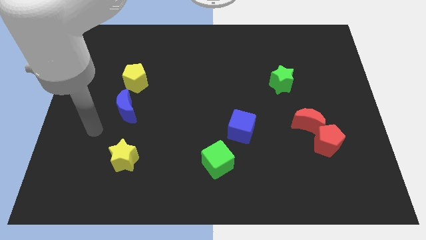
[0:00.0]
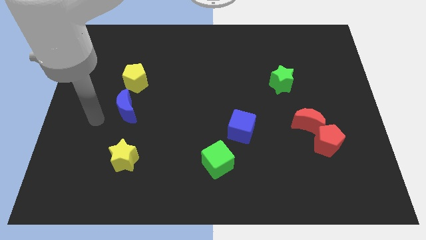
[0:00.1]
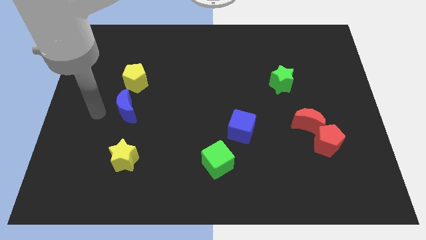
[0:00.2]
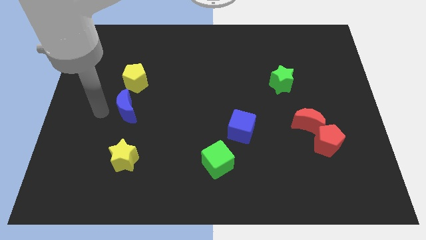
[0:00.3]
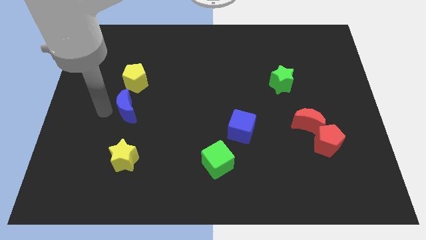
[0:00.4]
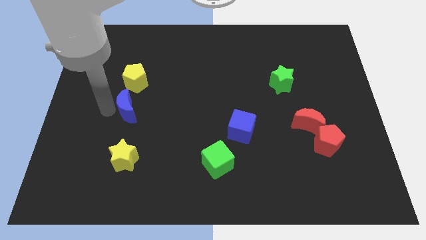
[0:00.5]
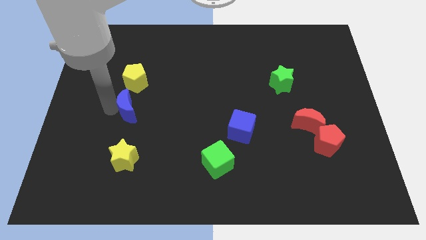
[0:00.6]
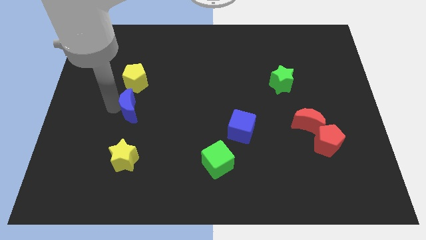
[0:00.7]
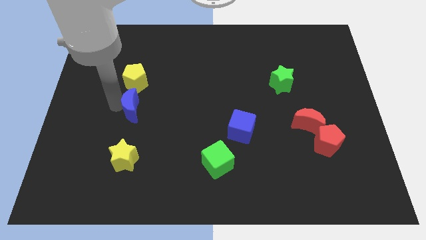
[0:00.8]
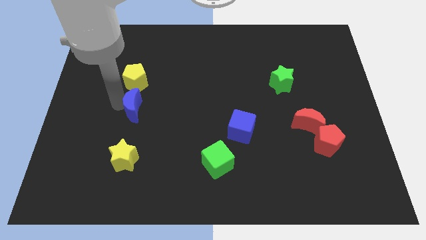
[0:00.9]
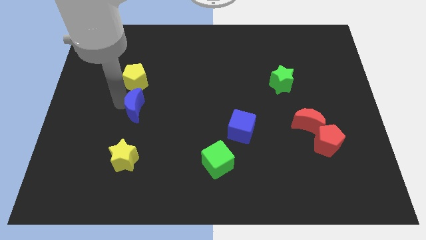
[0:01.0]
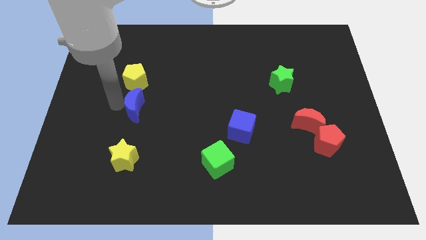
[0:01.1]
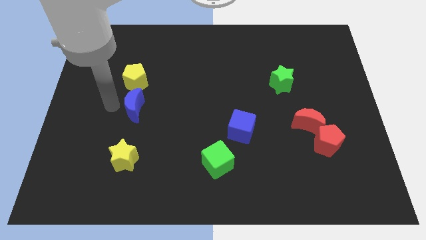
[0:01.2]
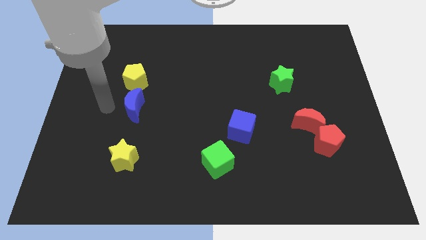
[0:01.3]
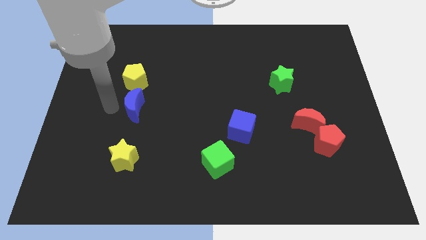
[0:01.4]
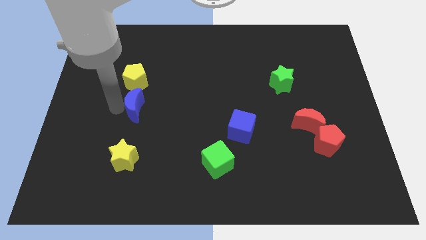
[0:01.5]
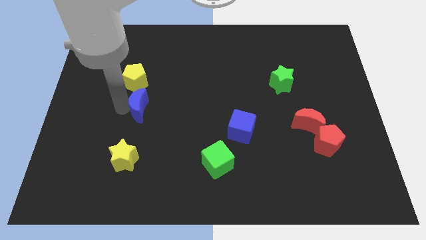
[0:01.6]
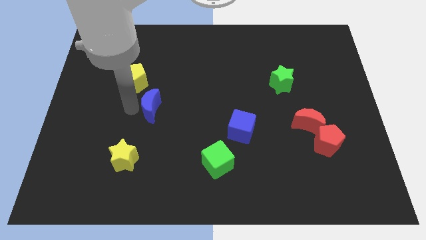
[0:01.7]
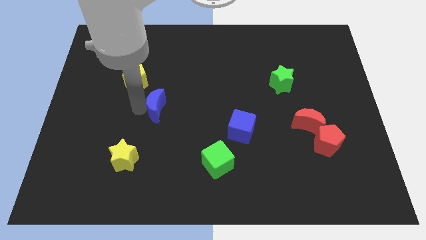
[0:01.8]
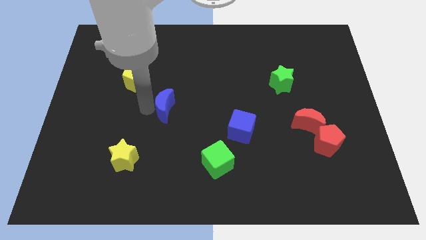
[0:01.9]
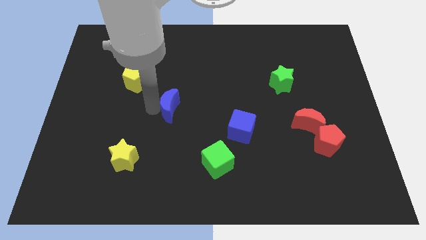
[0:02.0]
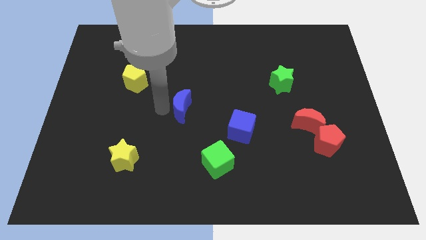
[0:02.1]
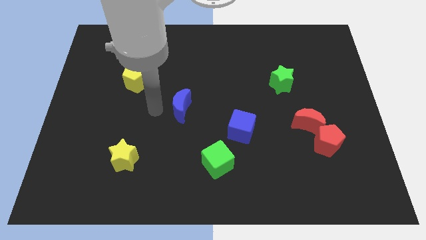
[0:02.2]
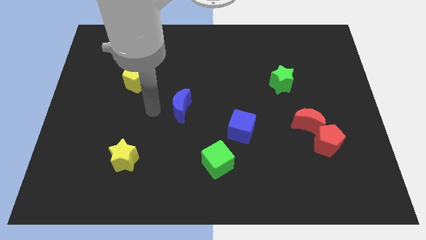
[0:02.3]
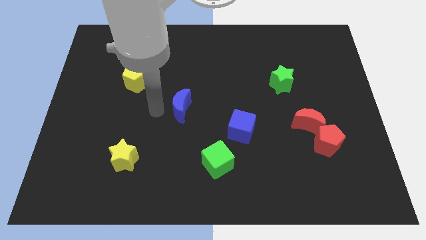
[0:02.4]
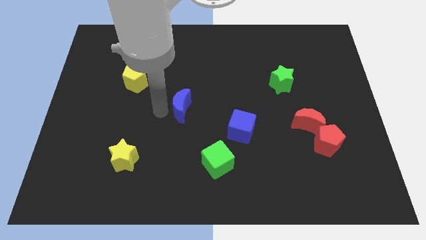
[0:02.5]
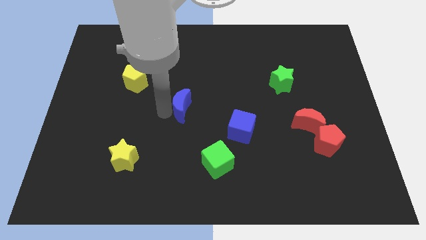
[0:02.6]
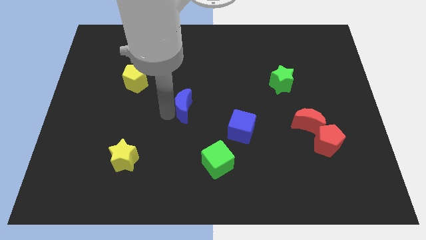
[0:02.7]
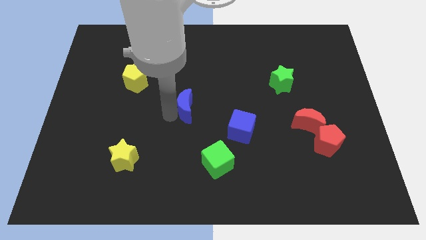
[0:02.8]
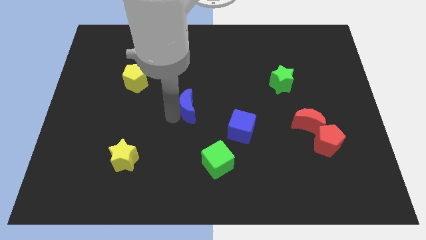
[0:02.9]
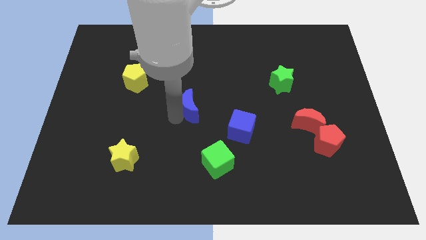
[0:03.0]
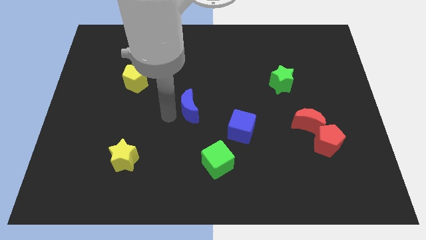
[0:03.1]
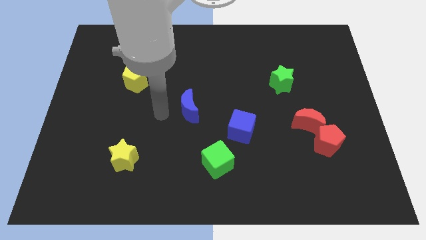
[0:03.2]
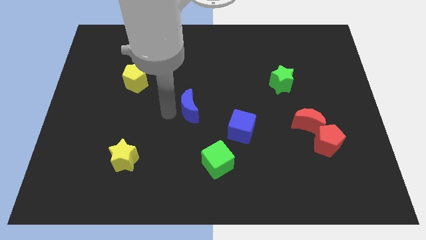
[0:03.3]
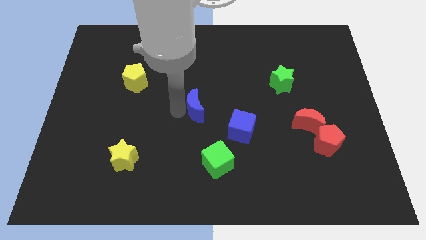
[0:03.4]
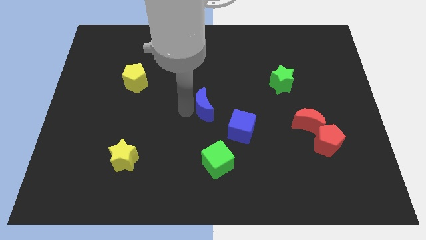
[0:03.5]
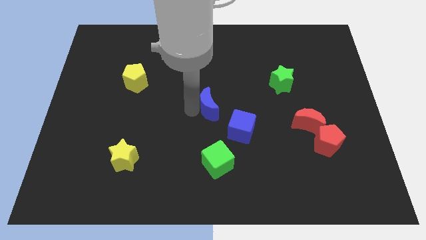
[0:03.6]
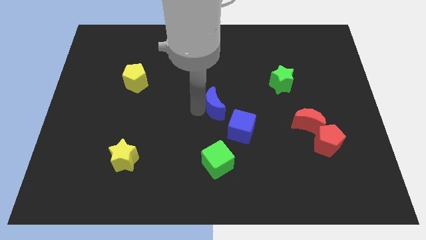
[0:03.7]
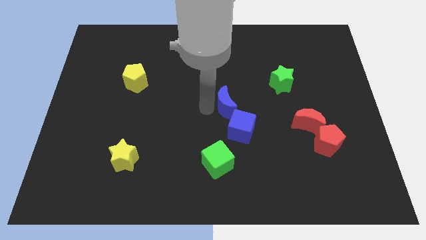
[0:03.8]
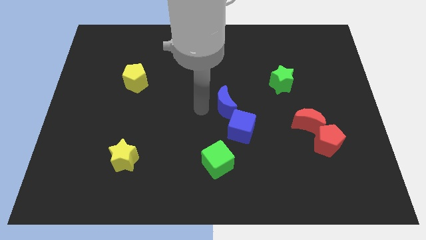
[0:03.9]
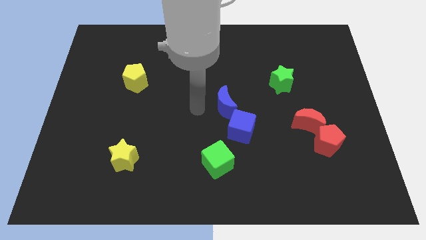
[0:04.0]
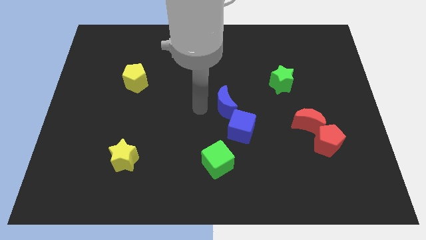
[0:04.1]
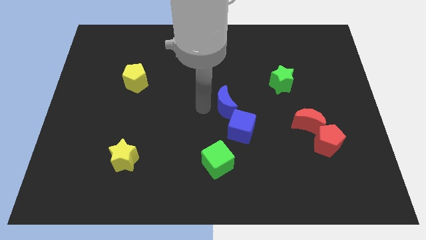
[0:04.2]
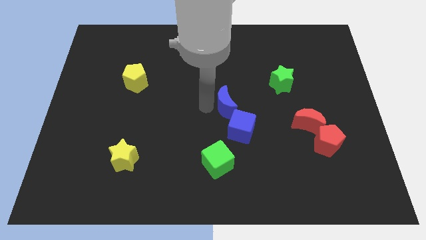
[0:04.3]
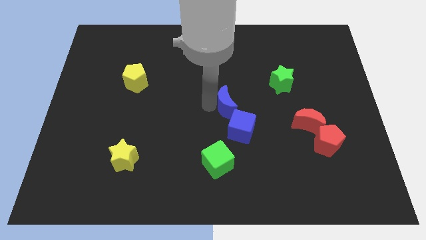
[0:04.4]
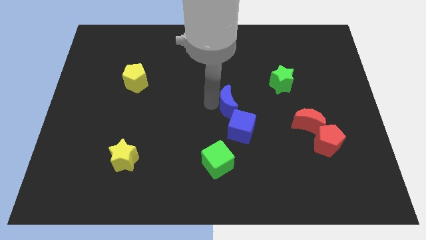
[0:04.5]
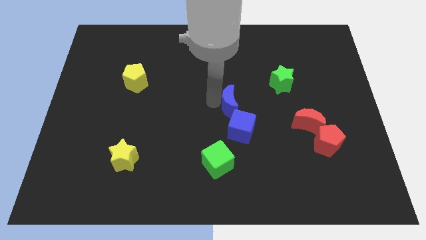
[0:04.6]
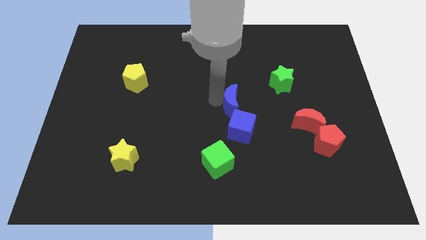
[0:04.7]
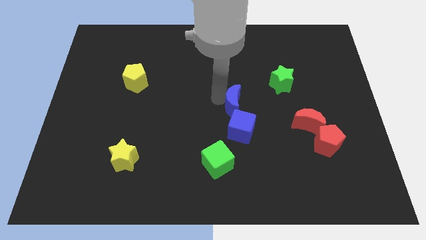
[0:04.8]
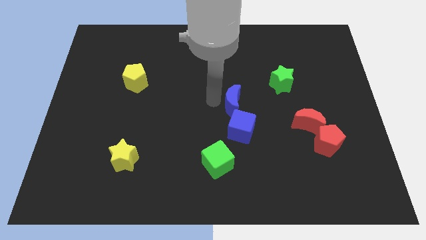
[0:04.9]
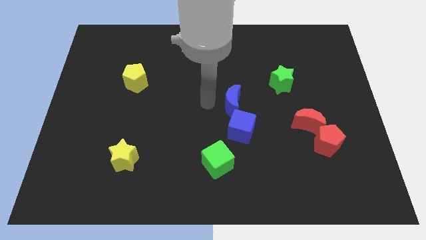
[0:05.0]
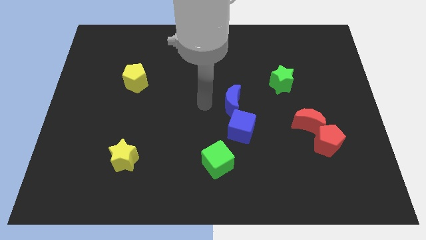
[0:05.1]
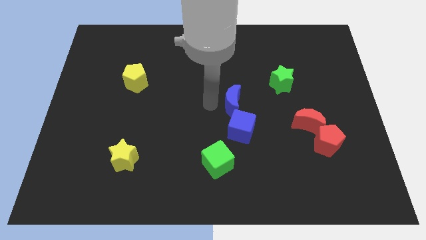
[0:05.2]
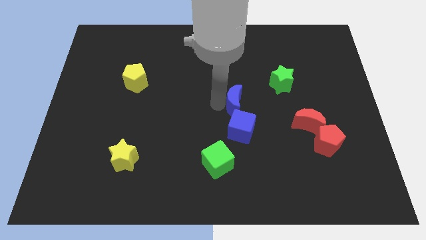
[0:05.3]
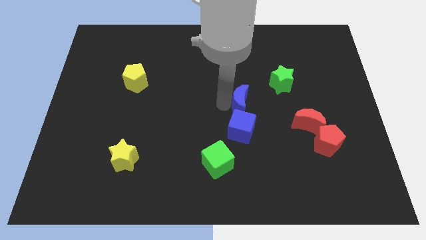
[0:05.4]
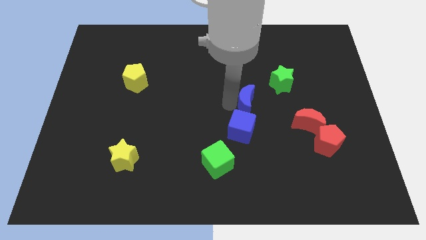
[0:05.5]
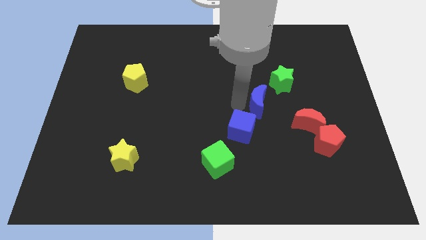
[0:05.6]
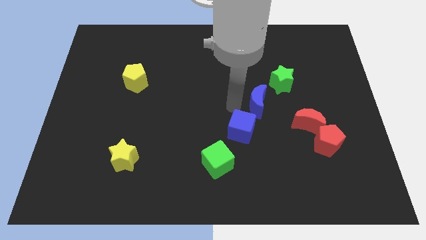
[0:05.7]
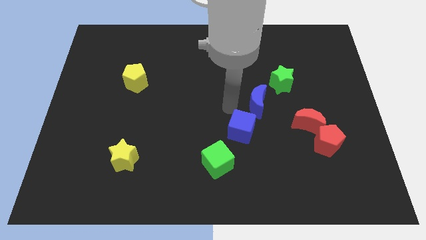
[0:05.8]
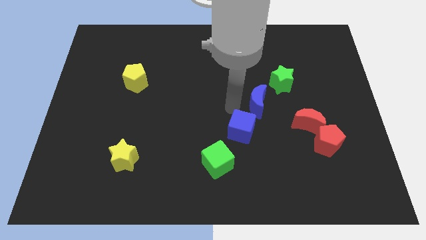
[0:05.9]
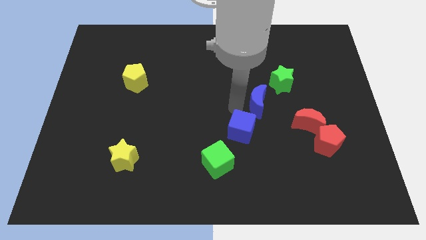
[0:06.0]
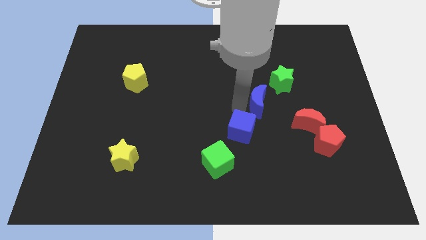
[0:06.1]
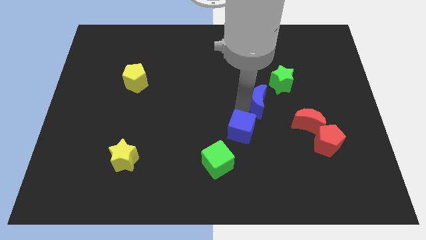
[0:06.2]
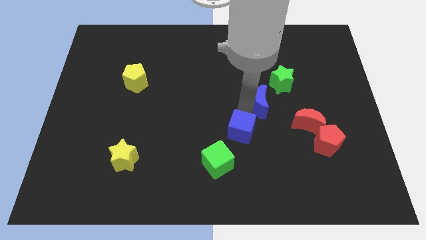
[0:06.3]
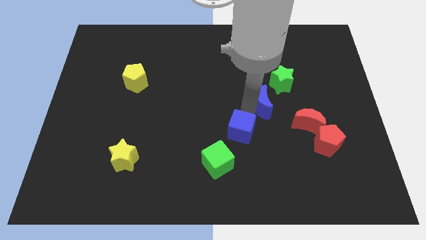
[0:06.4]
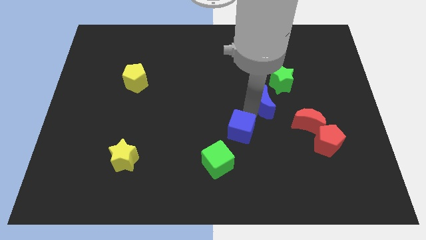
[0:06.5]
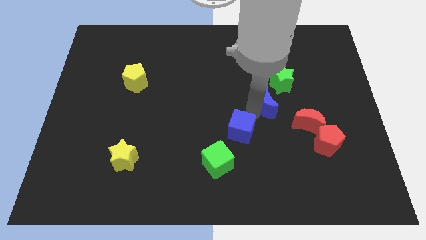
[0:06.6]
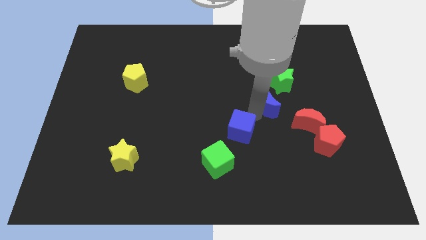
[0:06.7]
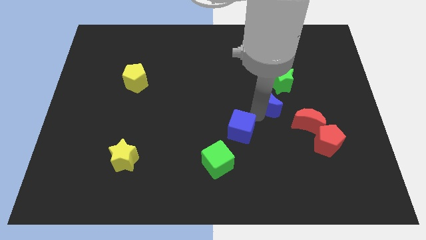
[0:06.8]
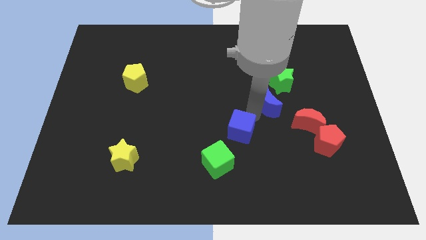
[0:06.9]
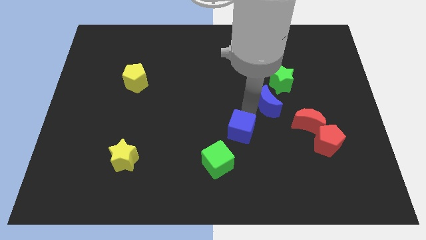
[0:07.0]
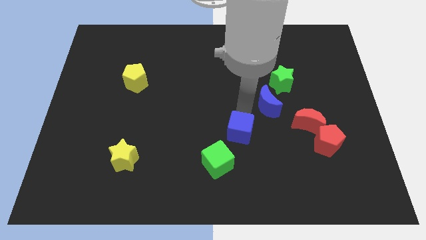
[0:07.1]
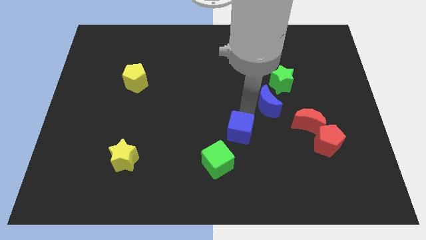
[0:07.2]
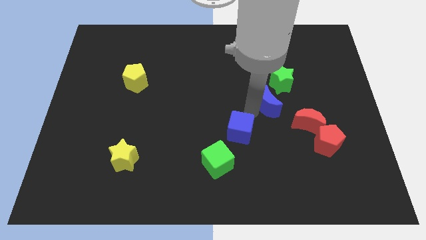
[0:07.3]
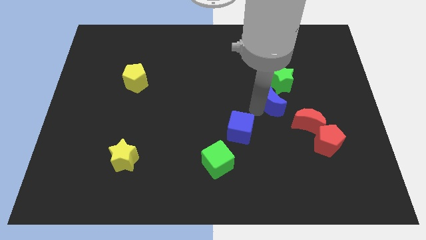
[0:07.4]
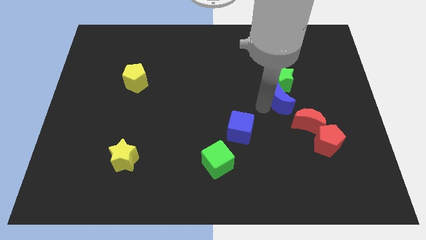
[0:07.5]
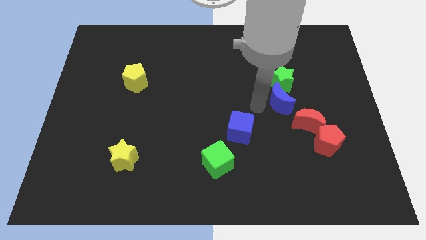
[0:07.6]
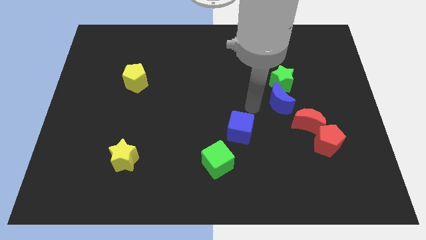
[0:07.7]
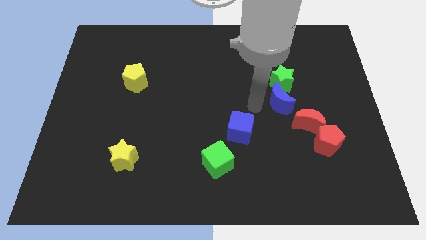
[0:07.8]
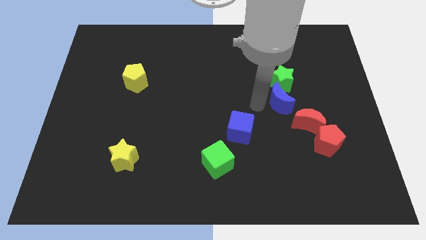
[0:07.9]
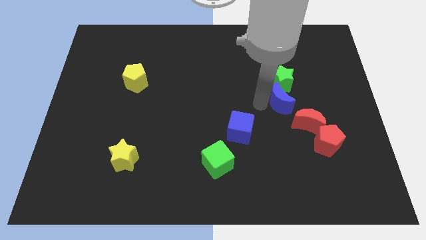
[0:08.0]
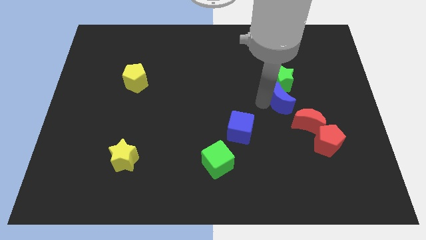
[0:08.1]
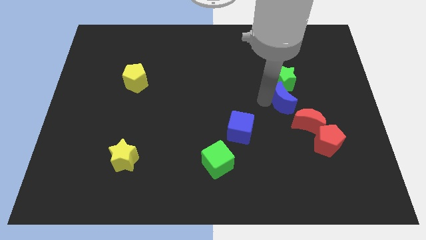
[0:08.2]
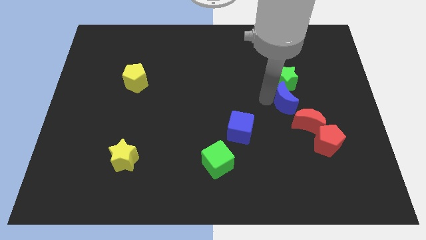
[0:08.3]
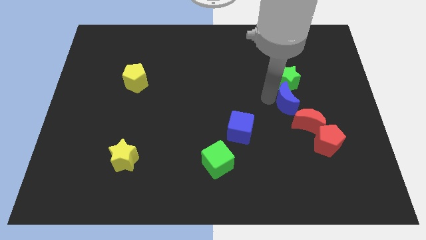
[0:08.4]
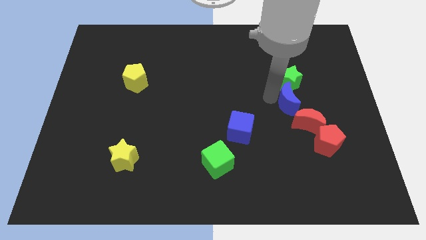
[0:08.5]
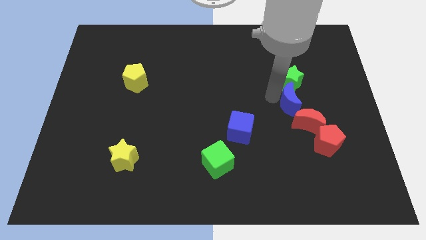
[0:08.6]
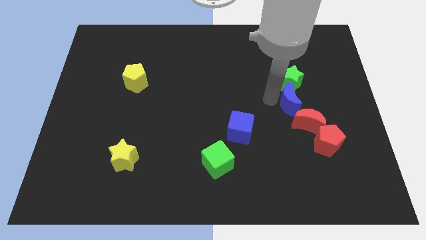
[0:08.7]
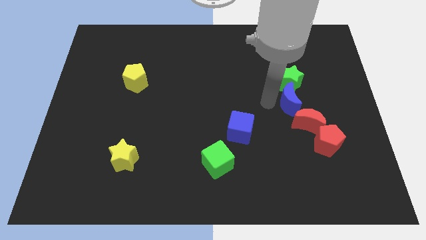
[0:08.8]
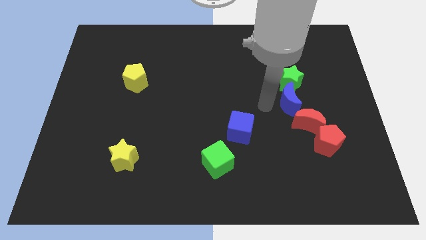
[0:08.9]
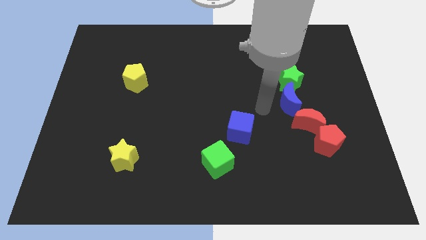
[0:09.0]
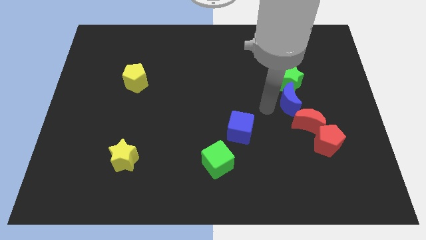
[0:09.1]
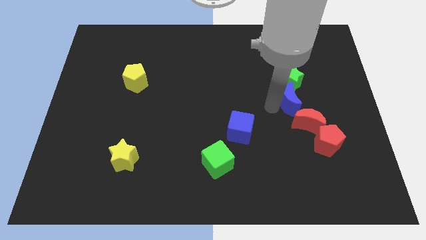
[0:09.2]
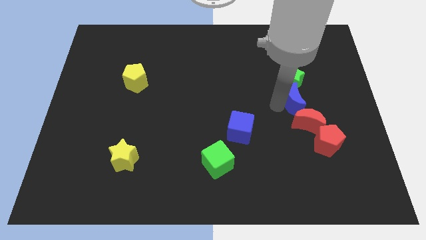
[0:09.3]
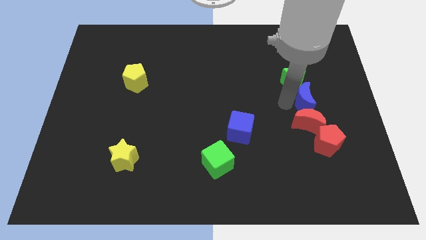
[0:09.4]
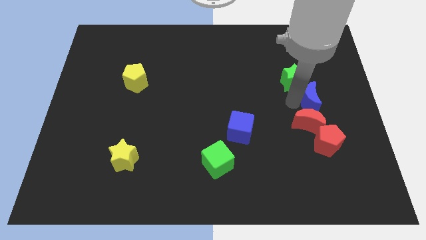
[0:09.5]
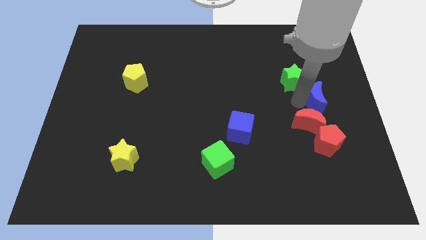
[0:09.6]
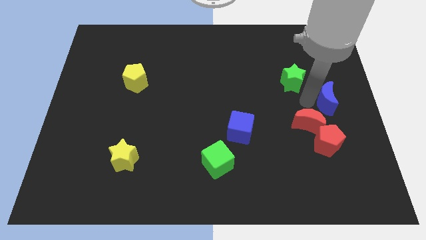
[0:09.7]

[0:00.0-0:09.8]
move the blue moon to the center right
